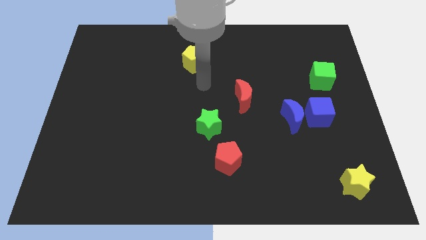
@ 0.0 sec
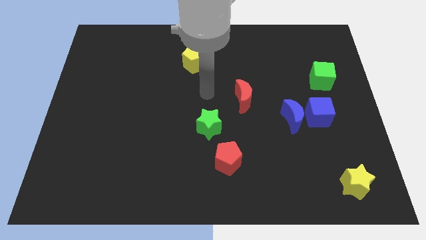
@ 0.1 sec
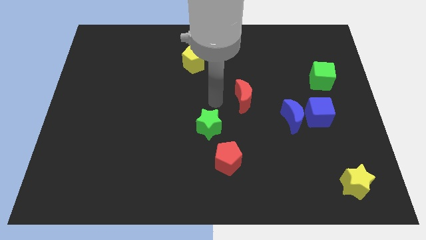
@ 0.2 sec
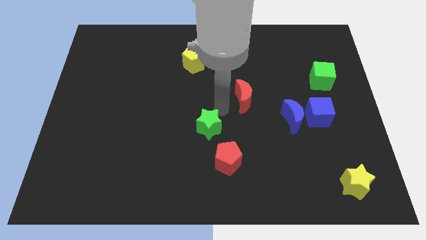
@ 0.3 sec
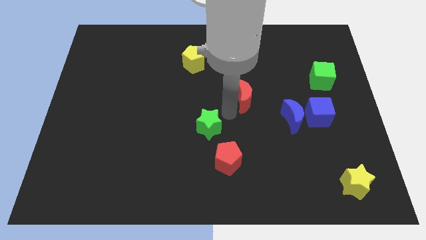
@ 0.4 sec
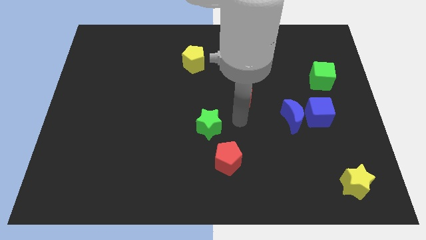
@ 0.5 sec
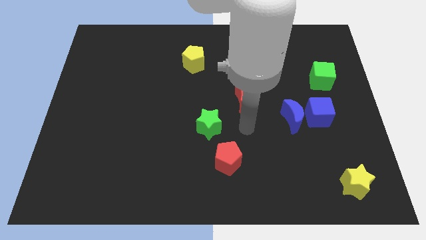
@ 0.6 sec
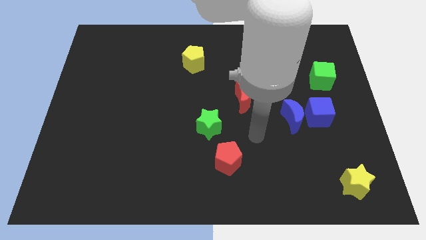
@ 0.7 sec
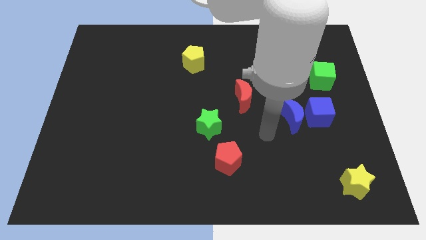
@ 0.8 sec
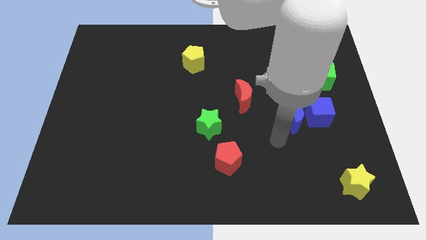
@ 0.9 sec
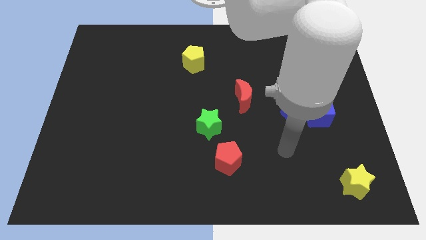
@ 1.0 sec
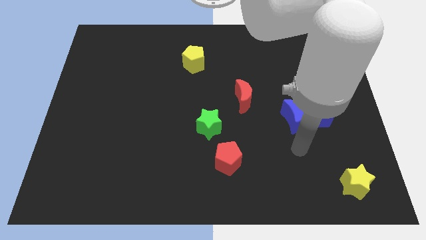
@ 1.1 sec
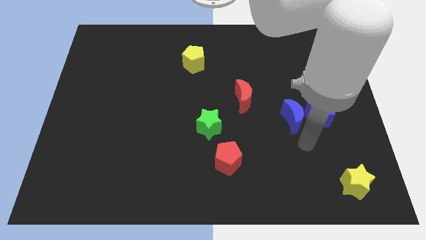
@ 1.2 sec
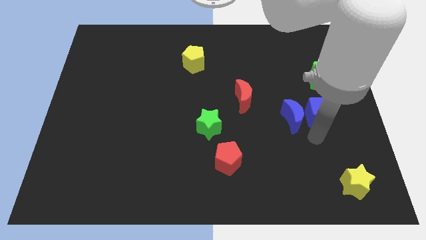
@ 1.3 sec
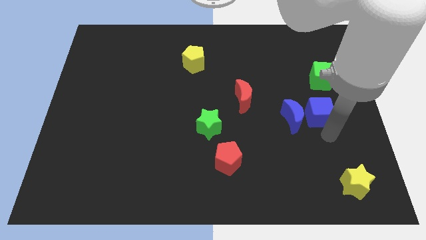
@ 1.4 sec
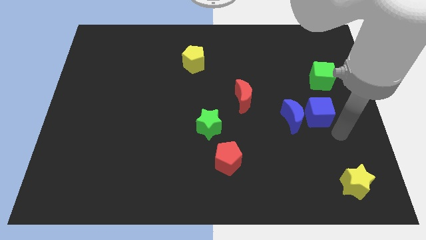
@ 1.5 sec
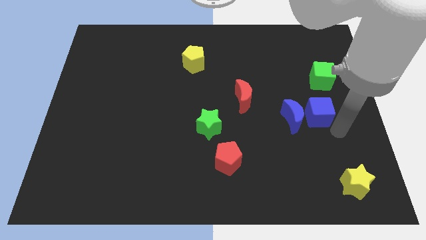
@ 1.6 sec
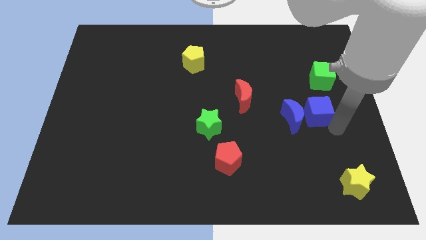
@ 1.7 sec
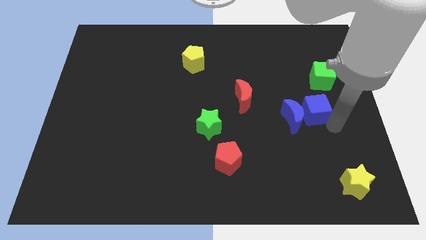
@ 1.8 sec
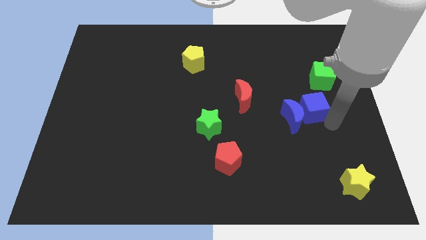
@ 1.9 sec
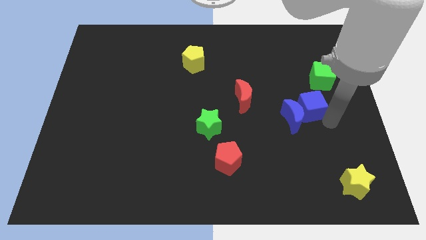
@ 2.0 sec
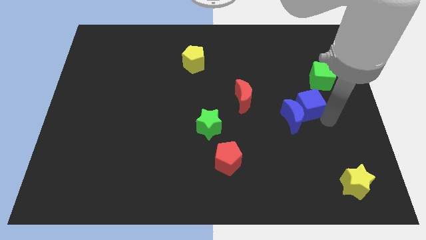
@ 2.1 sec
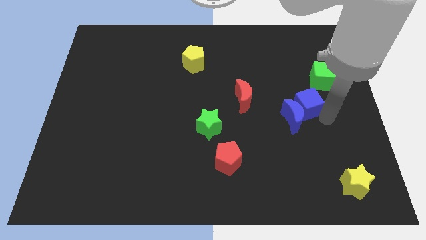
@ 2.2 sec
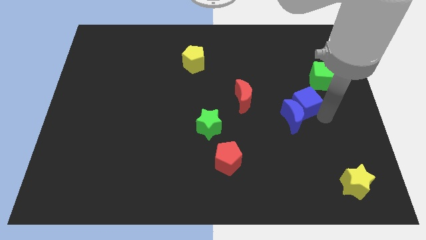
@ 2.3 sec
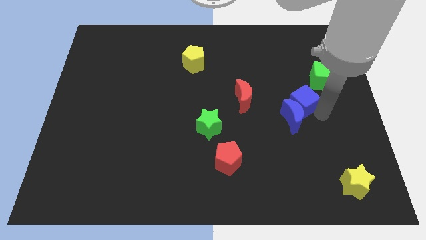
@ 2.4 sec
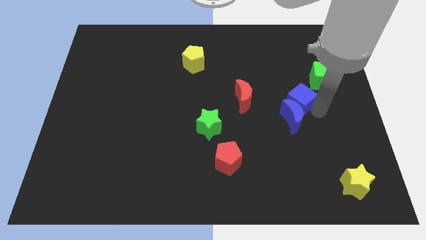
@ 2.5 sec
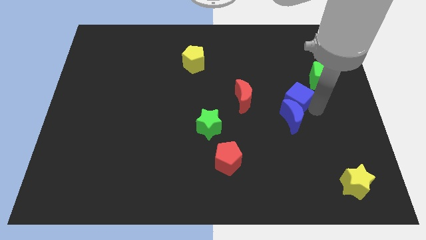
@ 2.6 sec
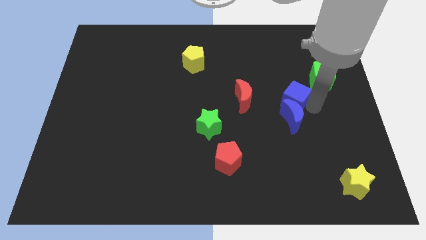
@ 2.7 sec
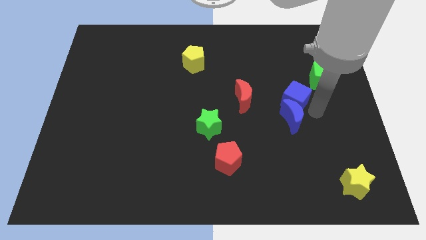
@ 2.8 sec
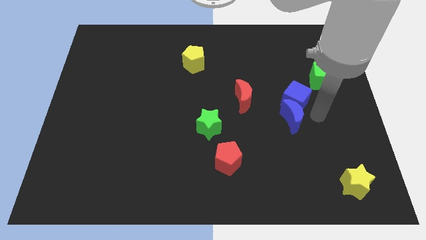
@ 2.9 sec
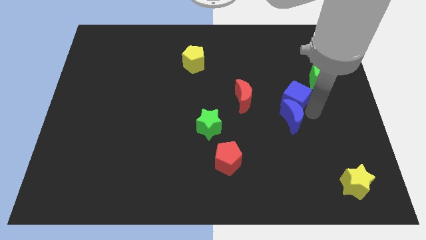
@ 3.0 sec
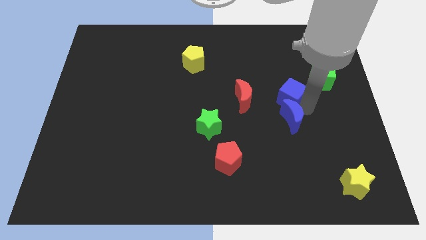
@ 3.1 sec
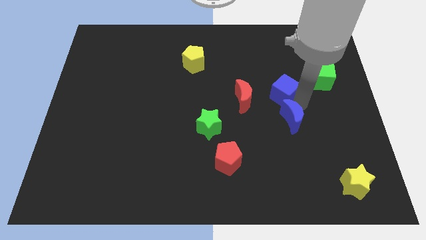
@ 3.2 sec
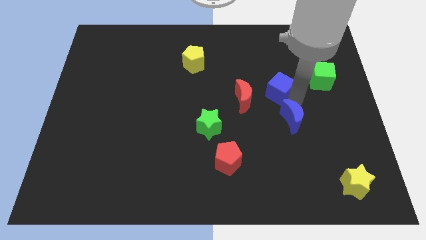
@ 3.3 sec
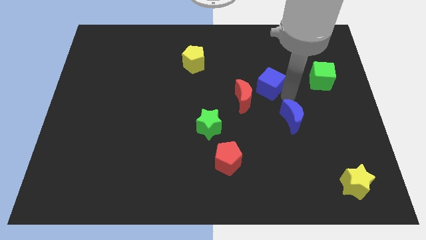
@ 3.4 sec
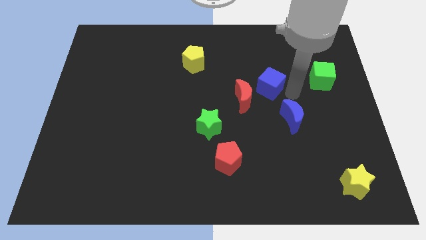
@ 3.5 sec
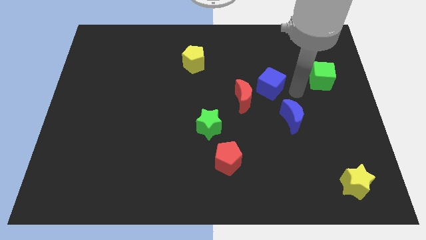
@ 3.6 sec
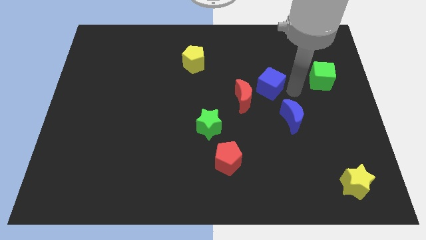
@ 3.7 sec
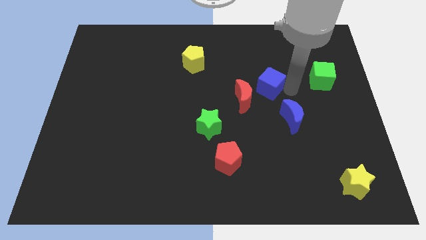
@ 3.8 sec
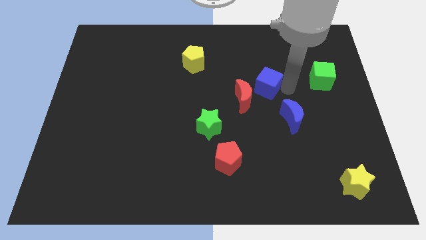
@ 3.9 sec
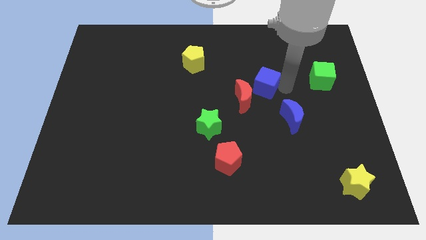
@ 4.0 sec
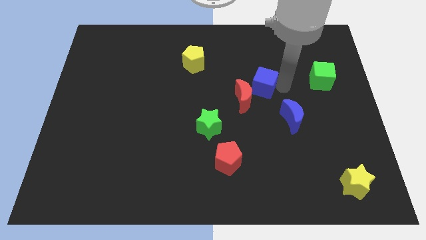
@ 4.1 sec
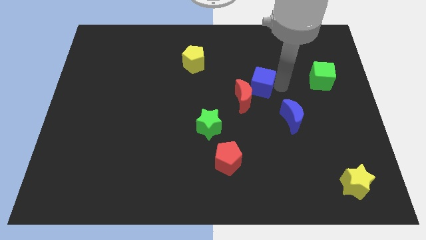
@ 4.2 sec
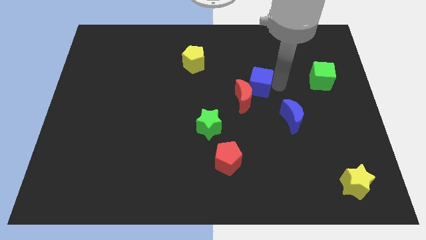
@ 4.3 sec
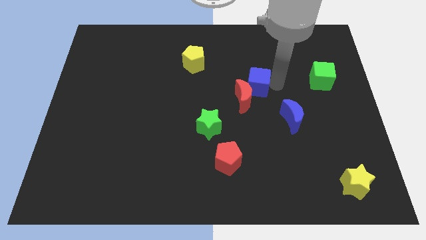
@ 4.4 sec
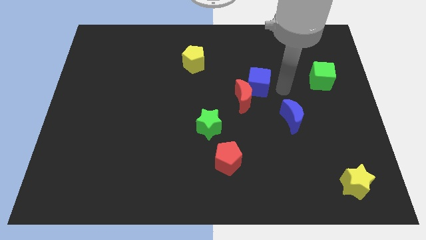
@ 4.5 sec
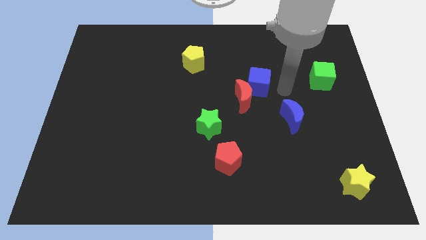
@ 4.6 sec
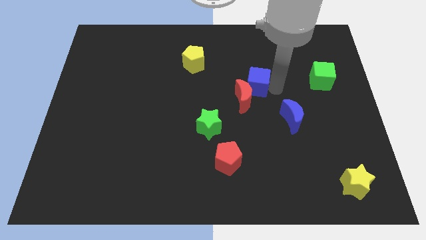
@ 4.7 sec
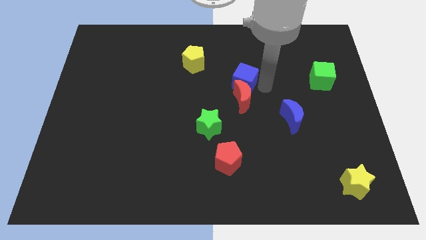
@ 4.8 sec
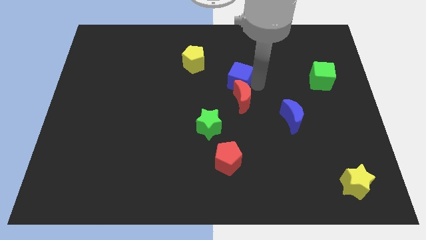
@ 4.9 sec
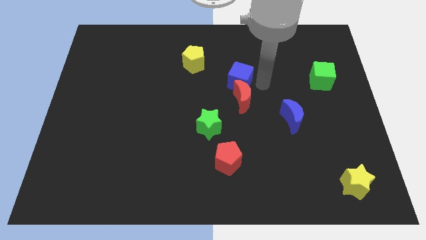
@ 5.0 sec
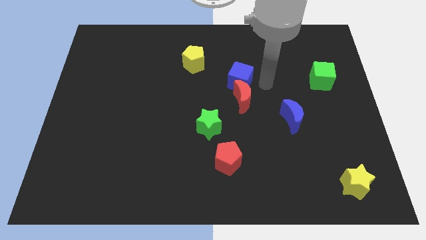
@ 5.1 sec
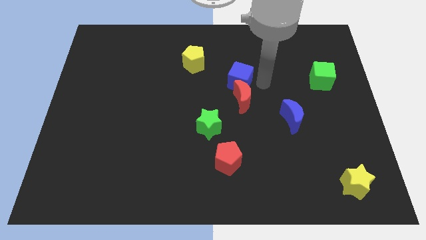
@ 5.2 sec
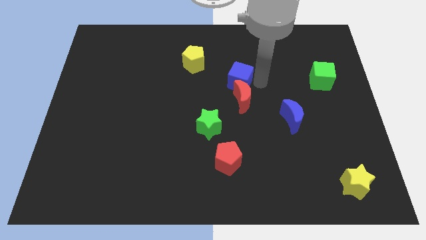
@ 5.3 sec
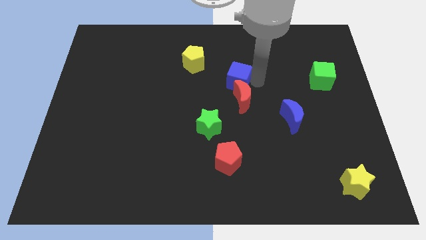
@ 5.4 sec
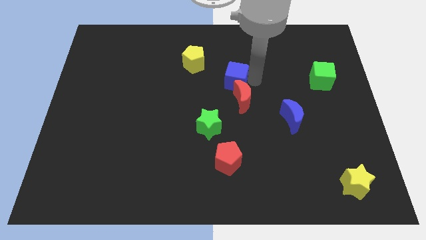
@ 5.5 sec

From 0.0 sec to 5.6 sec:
slide the blue cube to the bottom right side of the yellow pentagon

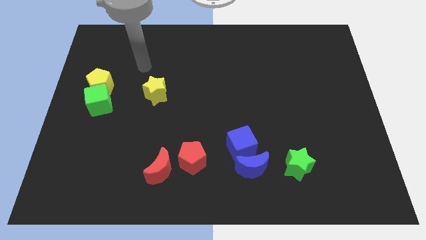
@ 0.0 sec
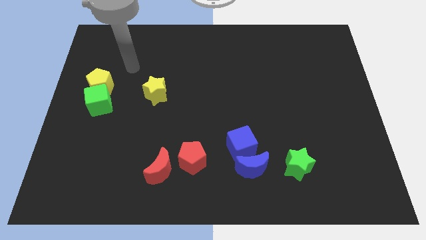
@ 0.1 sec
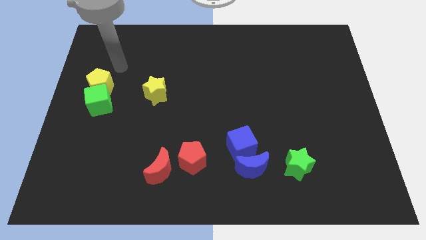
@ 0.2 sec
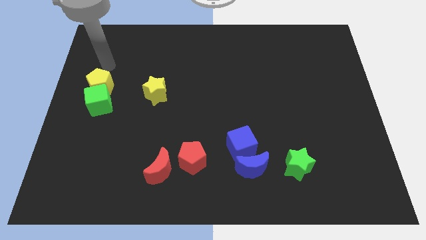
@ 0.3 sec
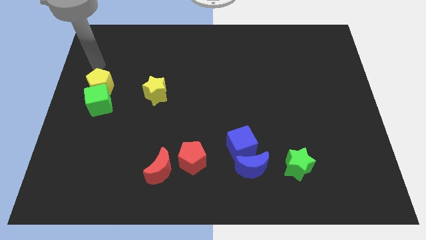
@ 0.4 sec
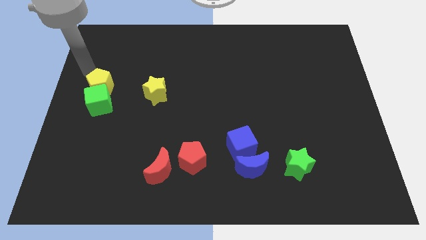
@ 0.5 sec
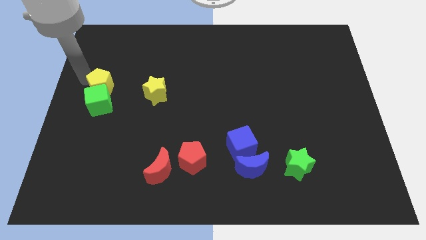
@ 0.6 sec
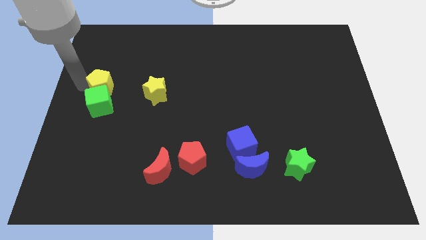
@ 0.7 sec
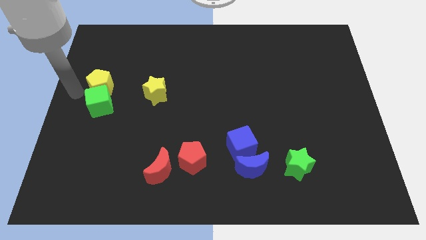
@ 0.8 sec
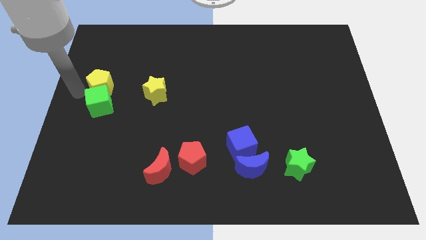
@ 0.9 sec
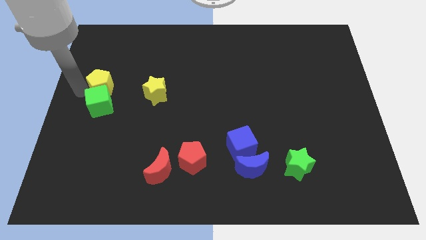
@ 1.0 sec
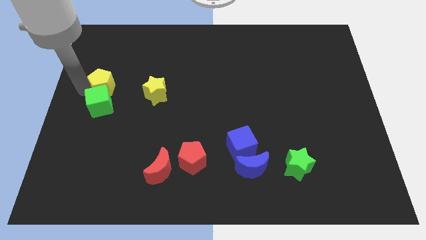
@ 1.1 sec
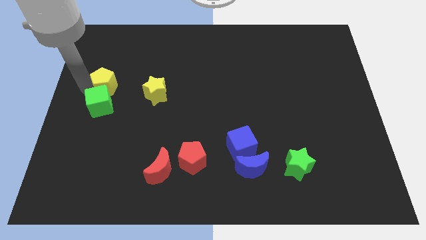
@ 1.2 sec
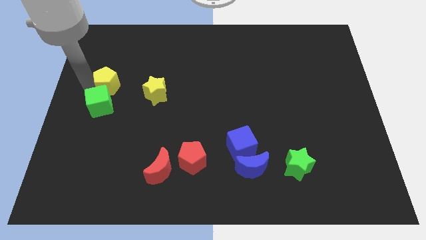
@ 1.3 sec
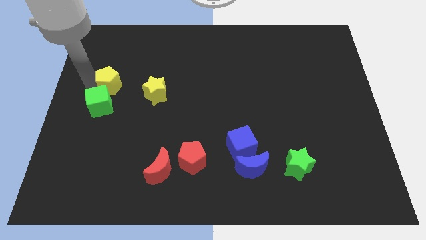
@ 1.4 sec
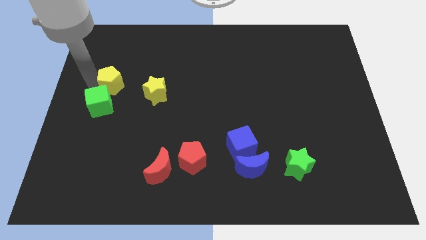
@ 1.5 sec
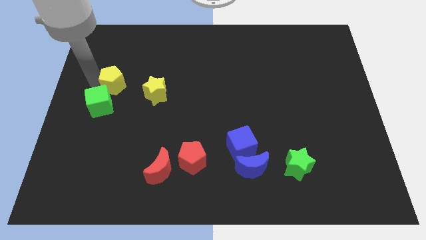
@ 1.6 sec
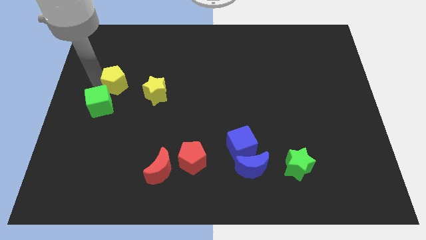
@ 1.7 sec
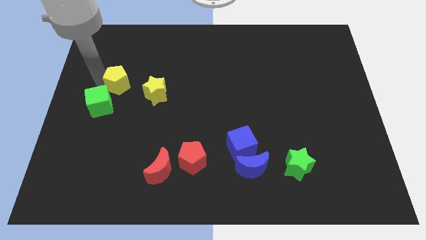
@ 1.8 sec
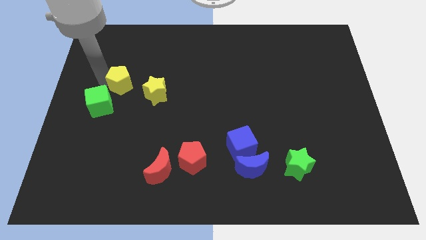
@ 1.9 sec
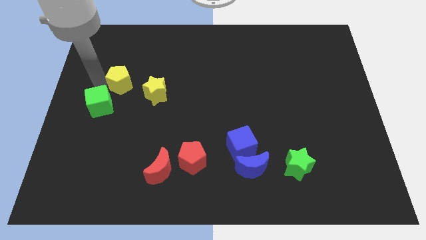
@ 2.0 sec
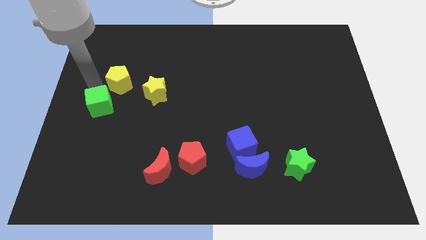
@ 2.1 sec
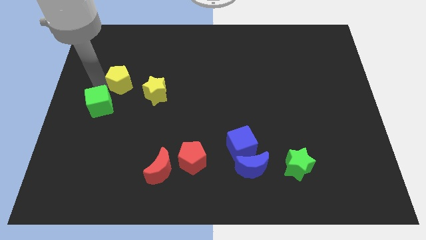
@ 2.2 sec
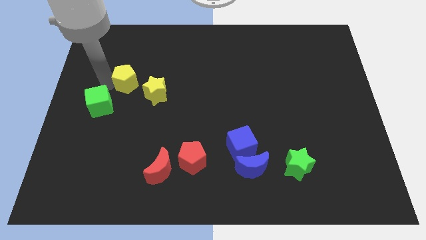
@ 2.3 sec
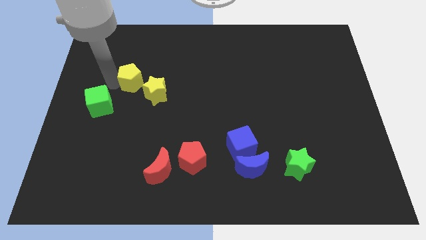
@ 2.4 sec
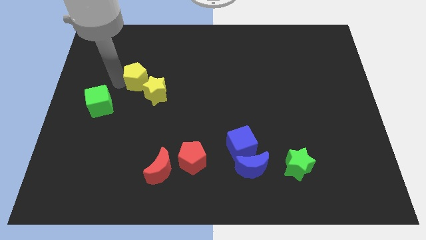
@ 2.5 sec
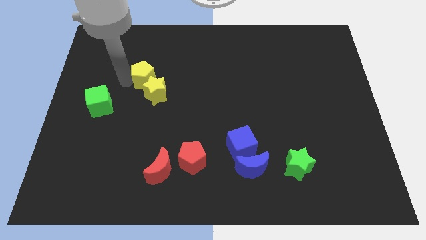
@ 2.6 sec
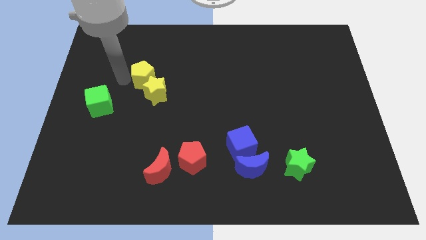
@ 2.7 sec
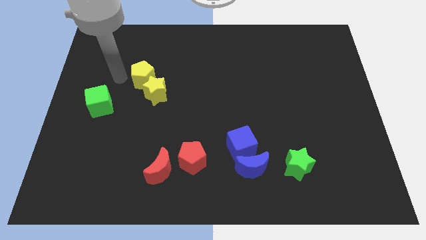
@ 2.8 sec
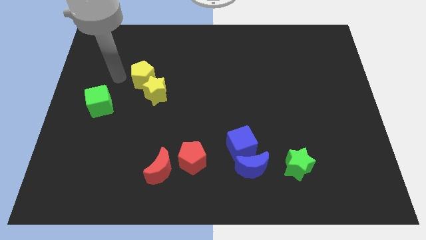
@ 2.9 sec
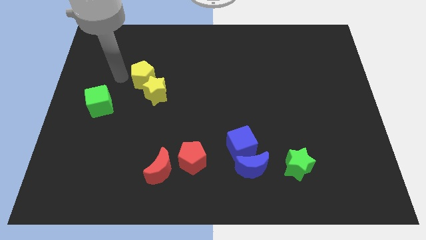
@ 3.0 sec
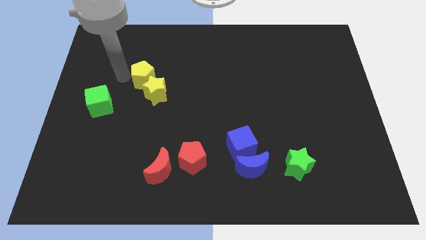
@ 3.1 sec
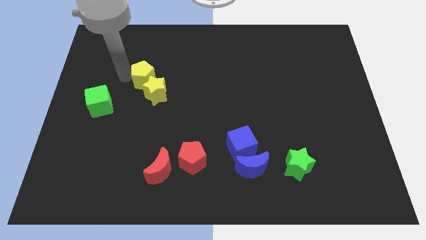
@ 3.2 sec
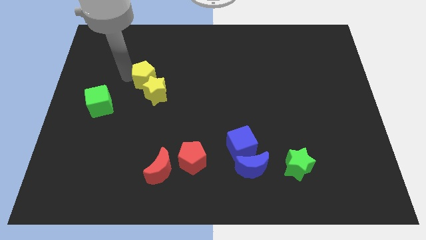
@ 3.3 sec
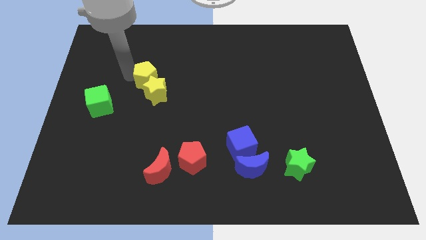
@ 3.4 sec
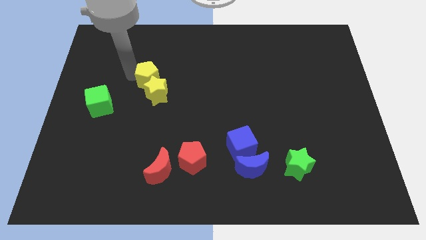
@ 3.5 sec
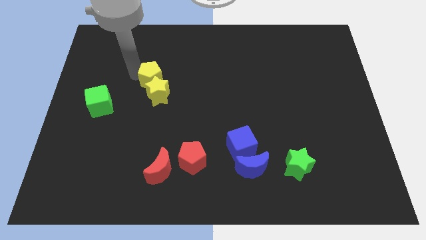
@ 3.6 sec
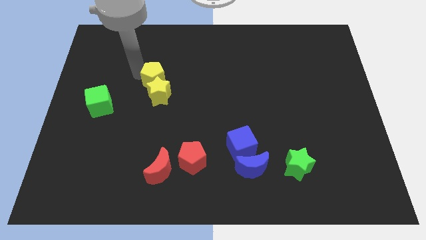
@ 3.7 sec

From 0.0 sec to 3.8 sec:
put the yellow pentagon diagonally up and to the right of the yellow star
